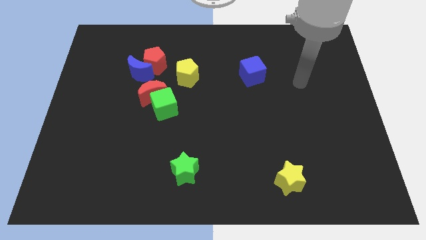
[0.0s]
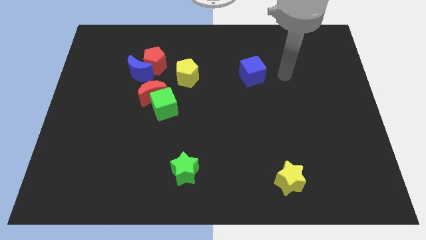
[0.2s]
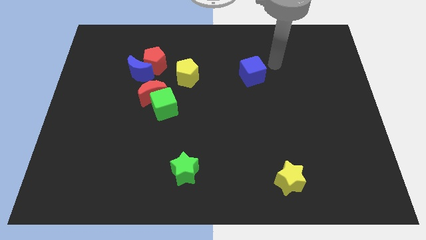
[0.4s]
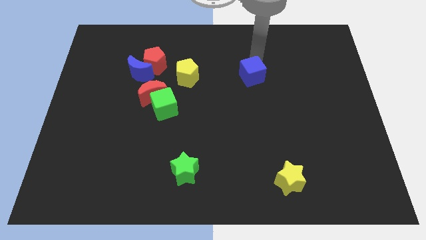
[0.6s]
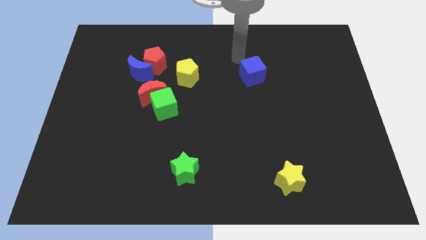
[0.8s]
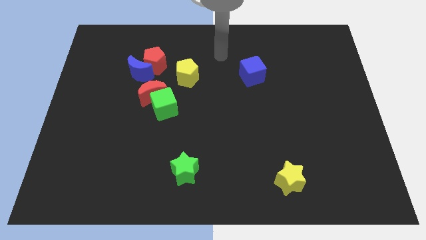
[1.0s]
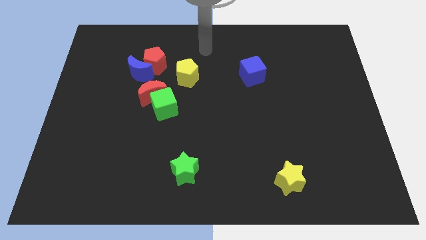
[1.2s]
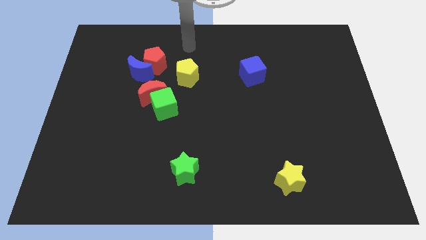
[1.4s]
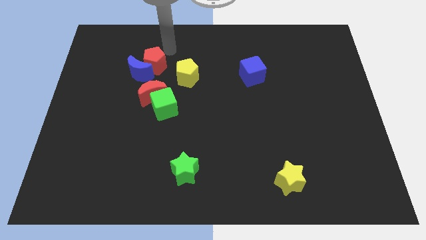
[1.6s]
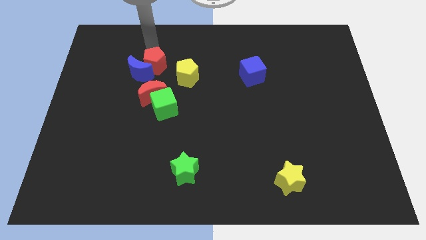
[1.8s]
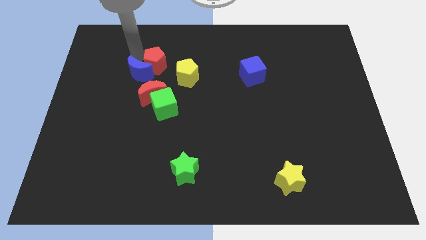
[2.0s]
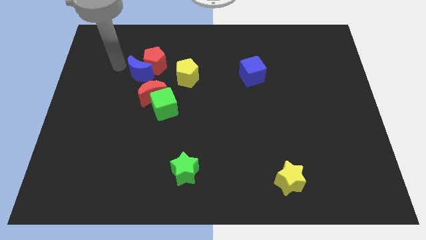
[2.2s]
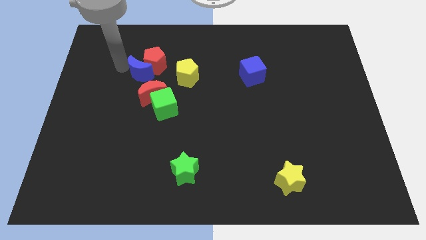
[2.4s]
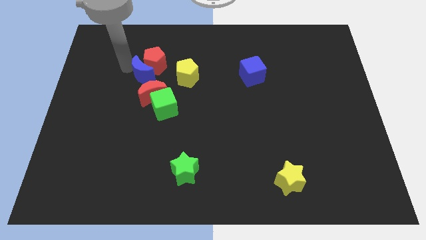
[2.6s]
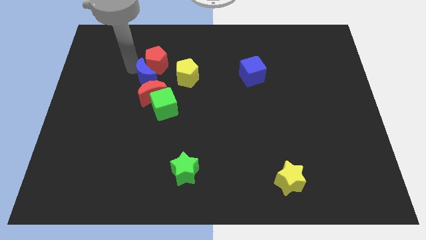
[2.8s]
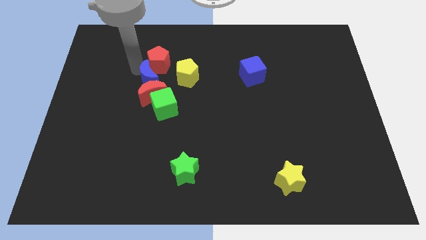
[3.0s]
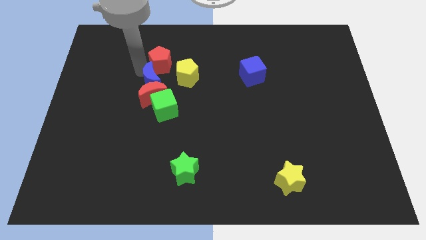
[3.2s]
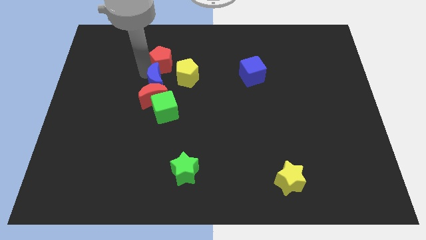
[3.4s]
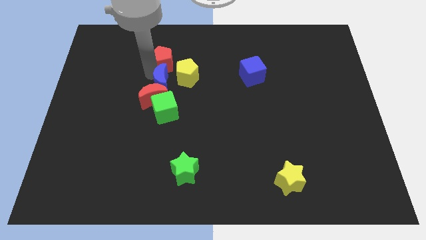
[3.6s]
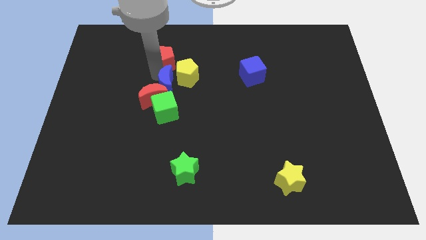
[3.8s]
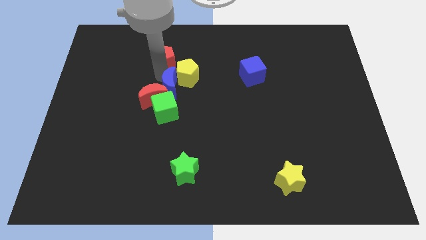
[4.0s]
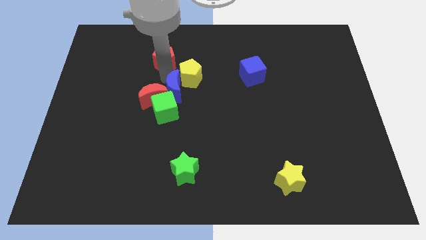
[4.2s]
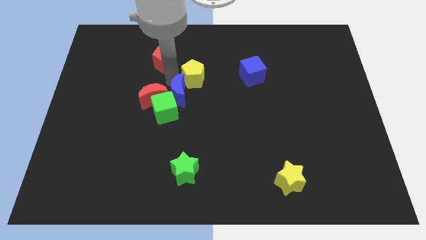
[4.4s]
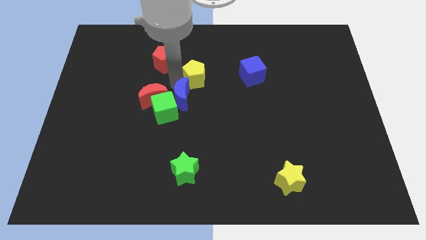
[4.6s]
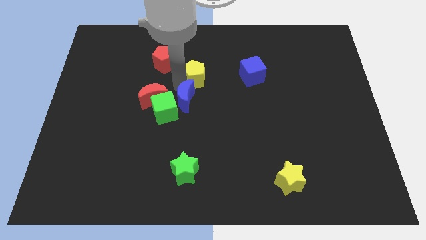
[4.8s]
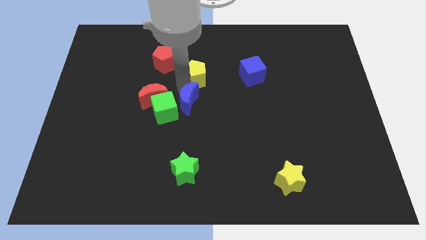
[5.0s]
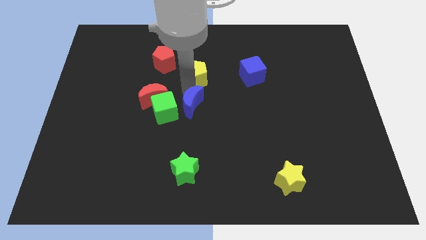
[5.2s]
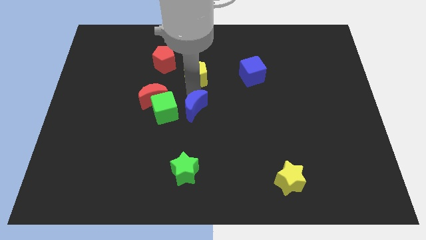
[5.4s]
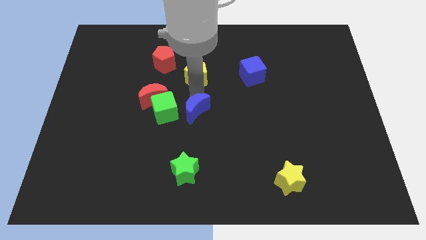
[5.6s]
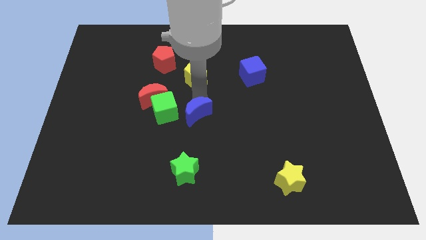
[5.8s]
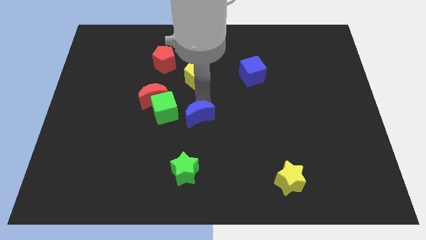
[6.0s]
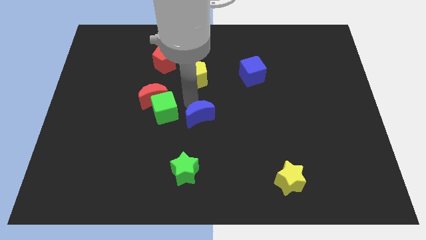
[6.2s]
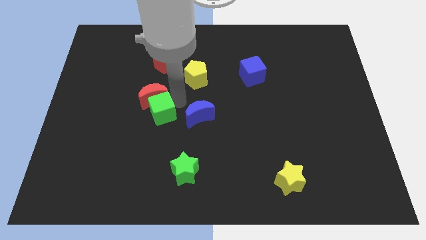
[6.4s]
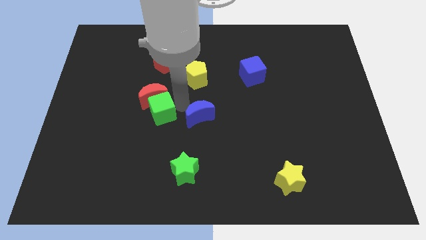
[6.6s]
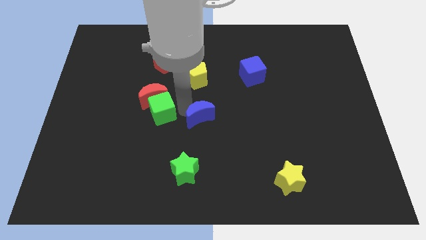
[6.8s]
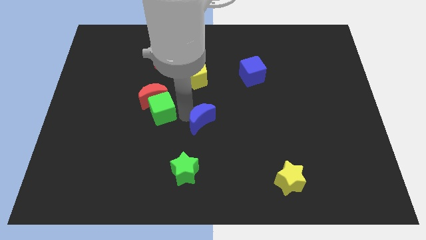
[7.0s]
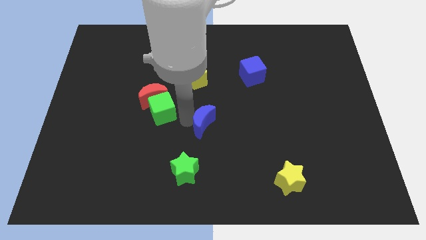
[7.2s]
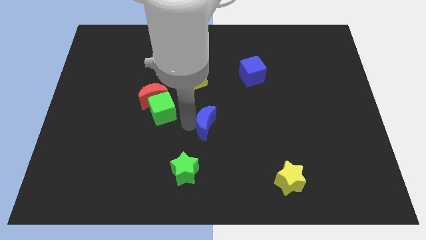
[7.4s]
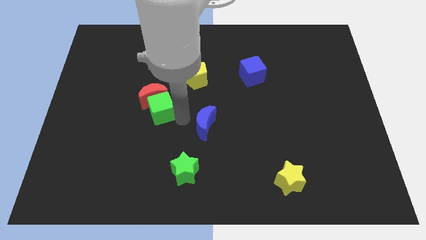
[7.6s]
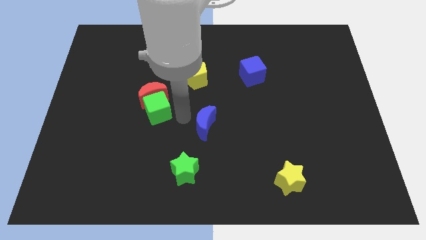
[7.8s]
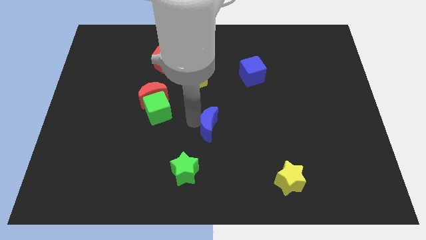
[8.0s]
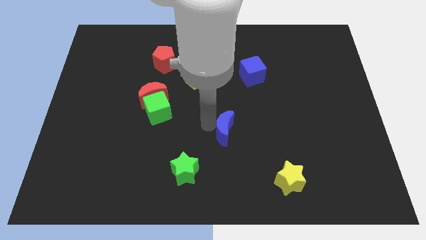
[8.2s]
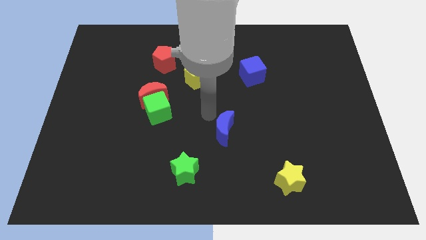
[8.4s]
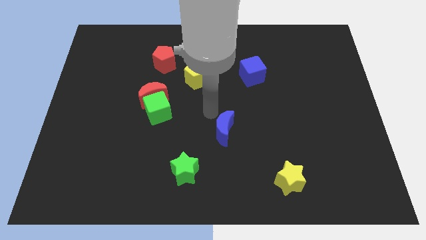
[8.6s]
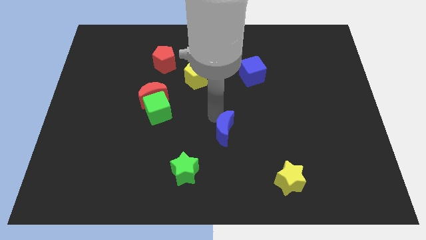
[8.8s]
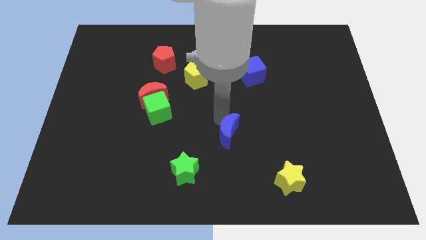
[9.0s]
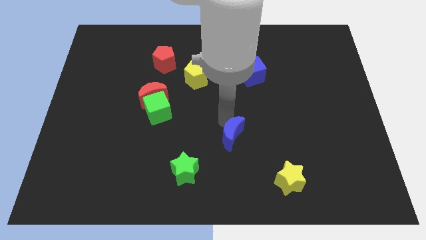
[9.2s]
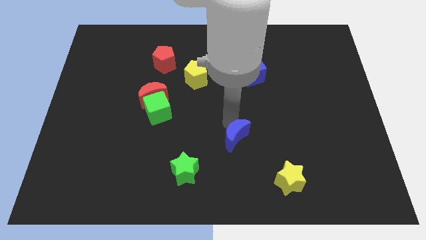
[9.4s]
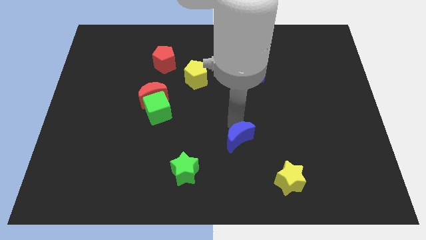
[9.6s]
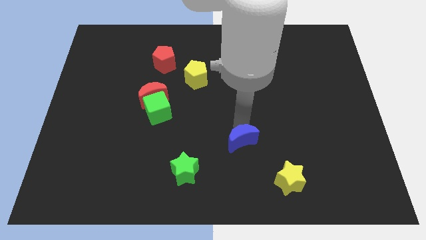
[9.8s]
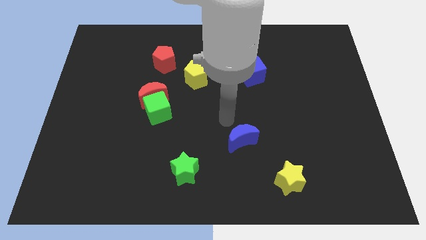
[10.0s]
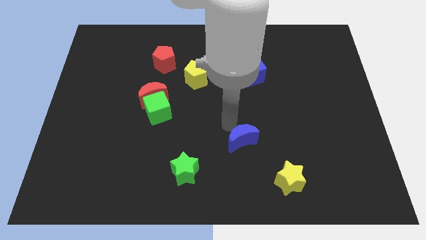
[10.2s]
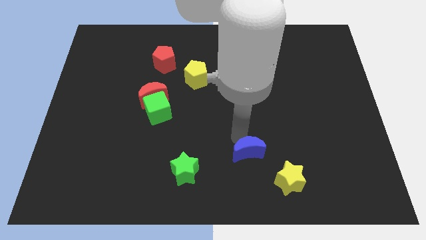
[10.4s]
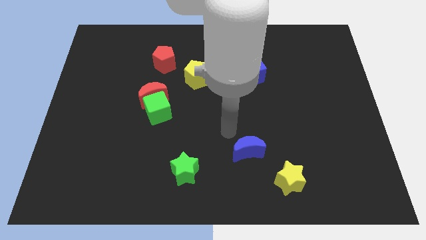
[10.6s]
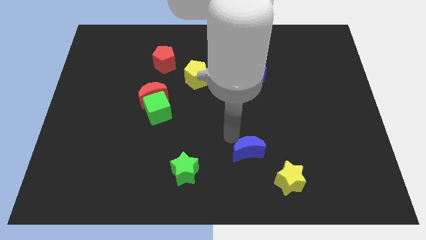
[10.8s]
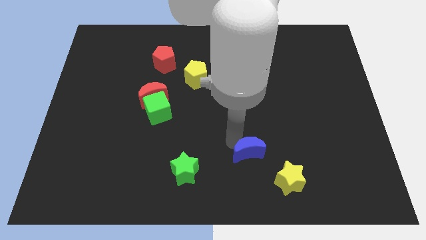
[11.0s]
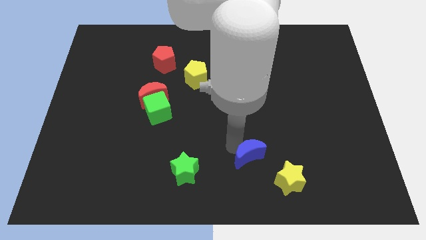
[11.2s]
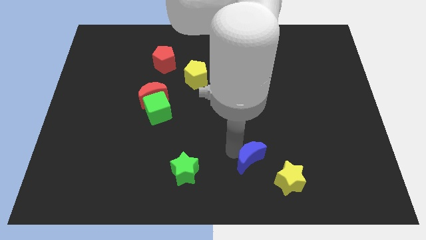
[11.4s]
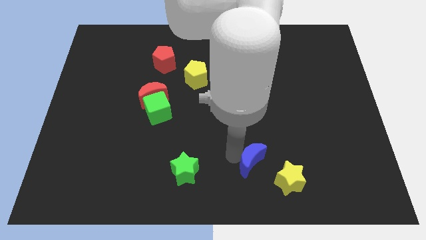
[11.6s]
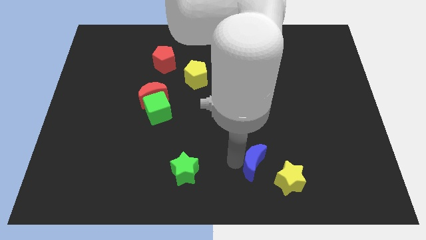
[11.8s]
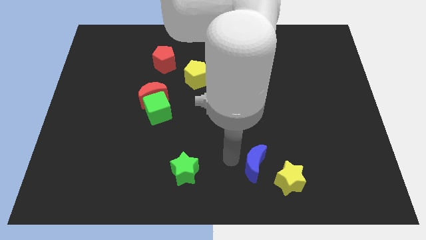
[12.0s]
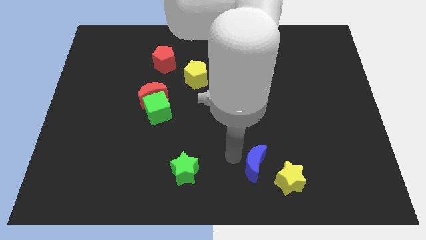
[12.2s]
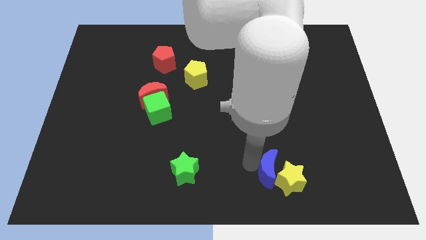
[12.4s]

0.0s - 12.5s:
slide the blue moon next to the yellow star

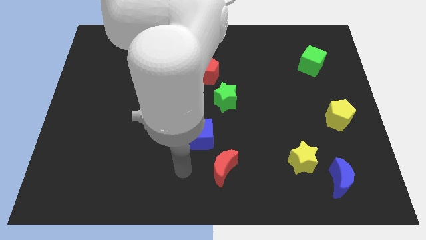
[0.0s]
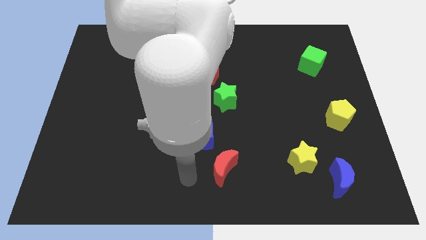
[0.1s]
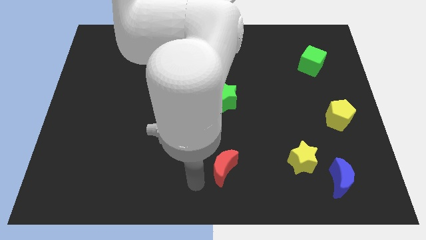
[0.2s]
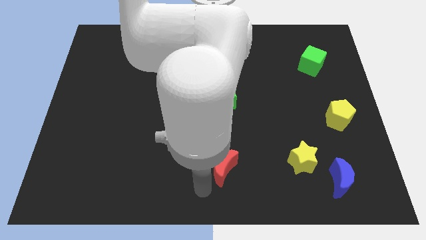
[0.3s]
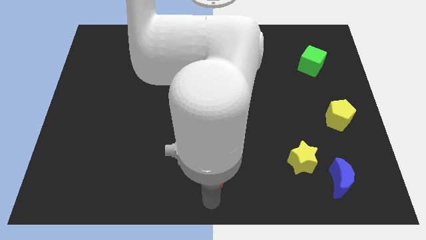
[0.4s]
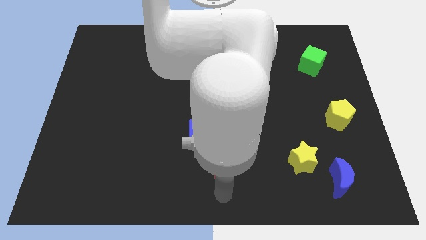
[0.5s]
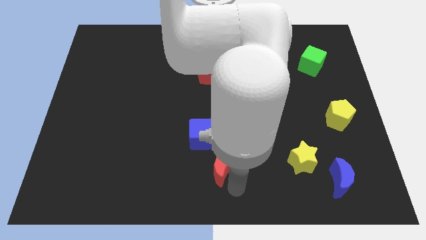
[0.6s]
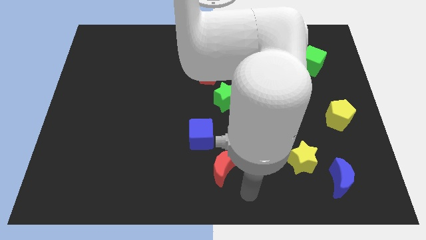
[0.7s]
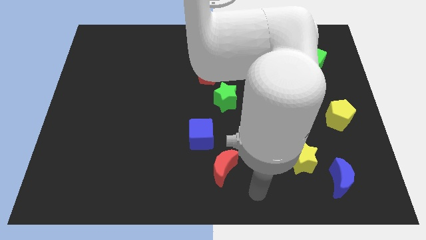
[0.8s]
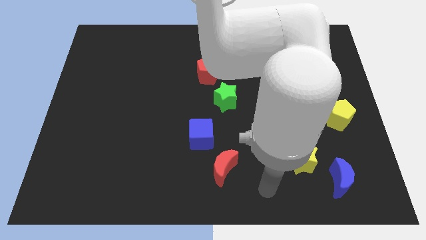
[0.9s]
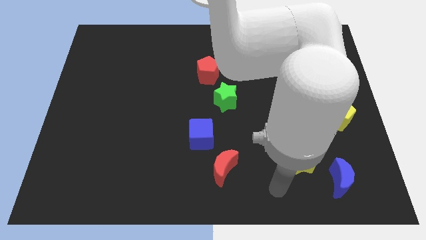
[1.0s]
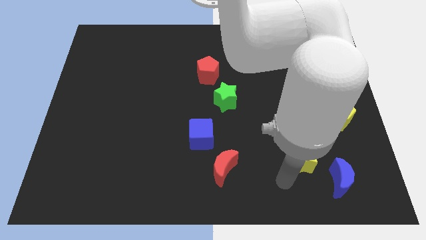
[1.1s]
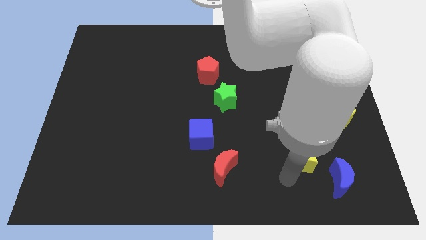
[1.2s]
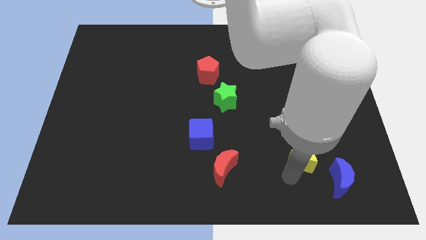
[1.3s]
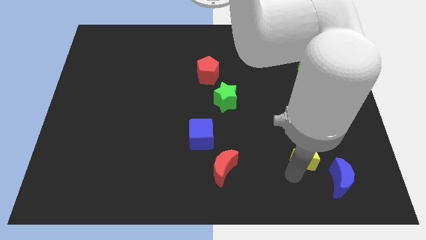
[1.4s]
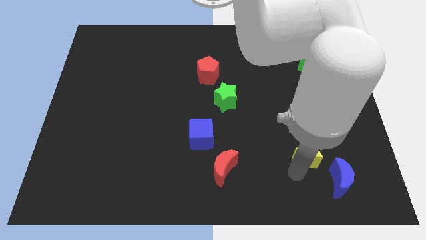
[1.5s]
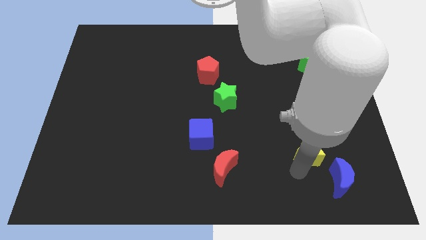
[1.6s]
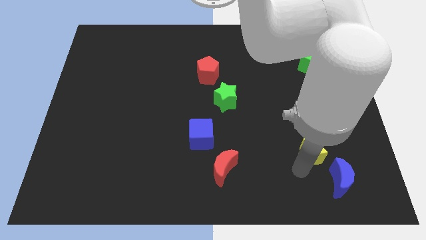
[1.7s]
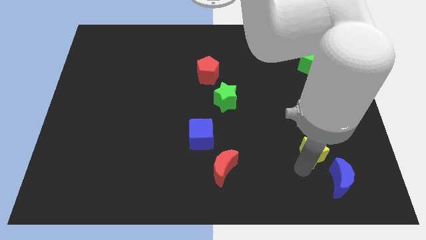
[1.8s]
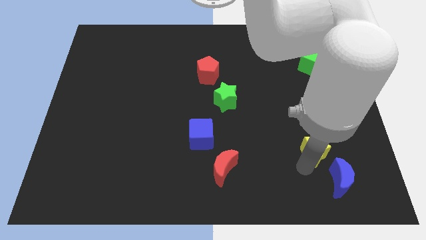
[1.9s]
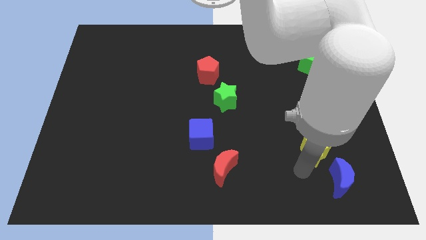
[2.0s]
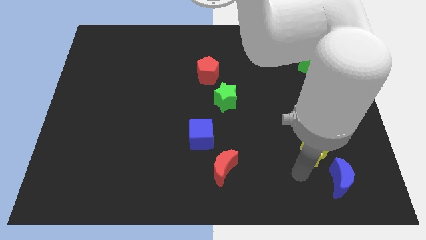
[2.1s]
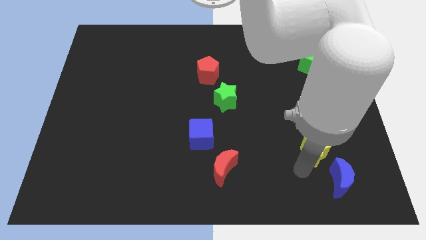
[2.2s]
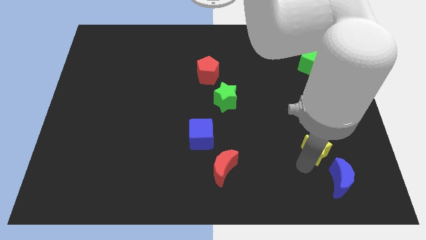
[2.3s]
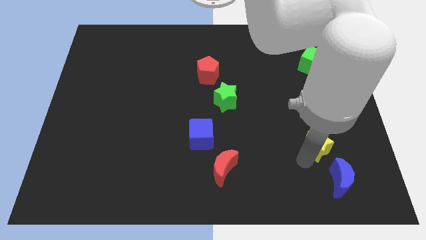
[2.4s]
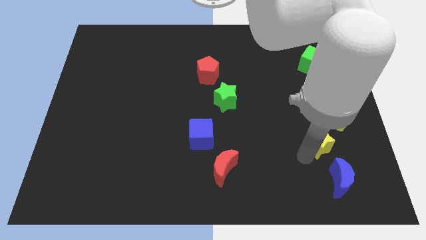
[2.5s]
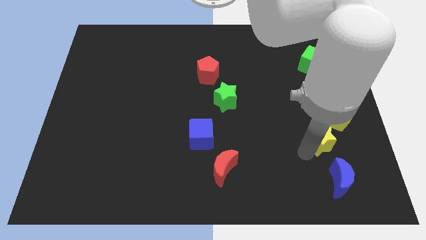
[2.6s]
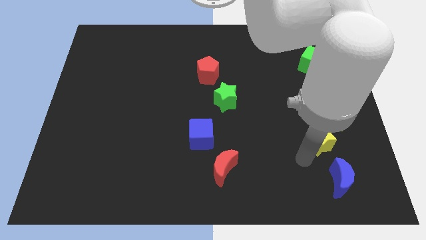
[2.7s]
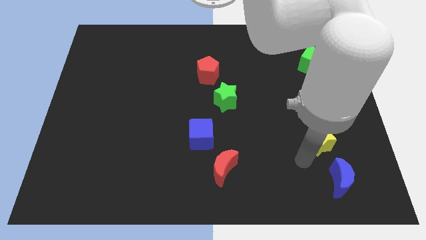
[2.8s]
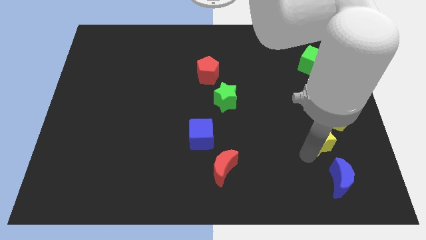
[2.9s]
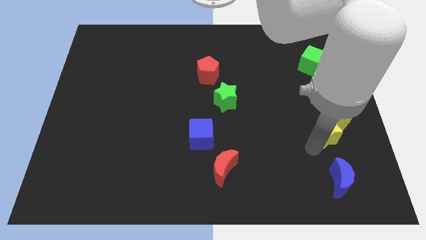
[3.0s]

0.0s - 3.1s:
move the yellow star next to the yellow pentagon
